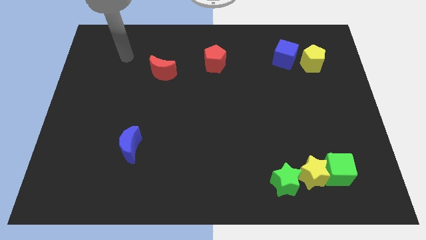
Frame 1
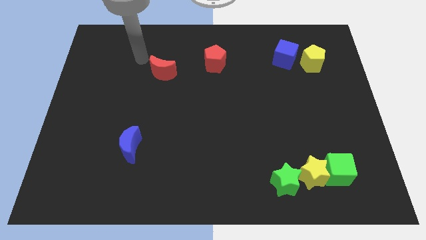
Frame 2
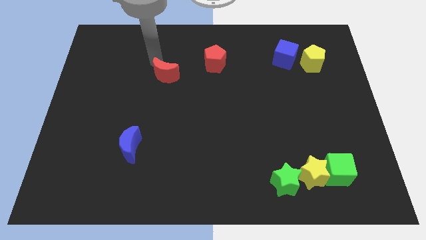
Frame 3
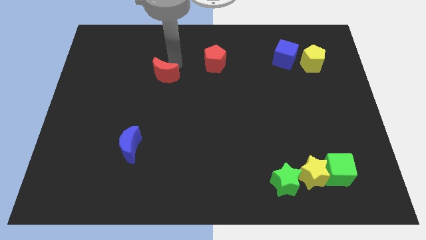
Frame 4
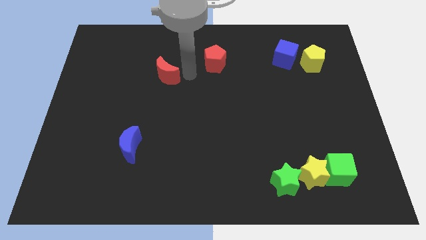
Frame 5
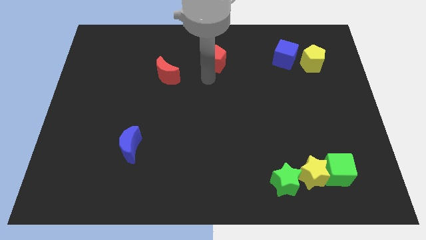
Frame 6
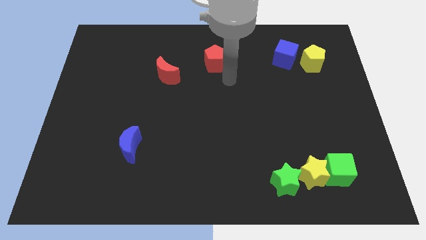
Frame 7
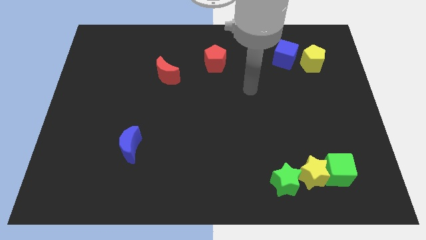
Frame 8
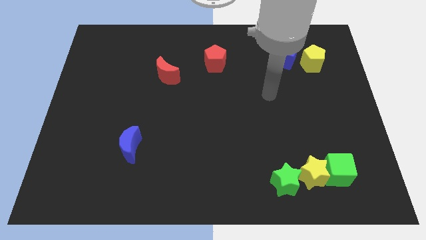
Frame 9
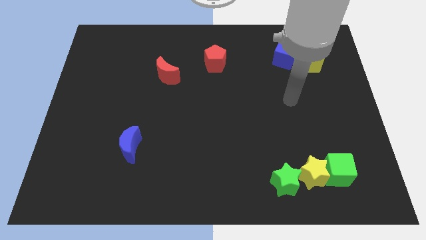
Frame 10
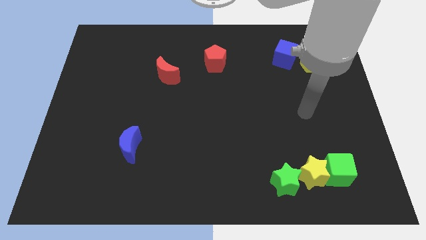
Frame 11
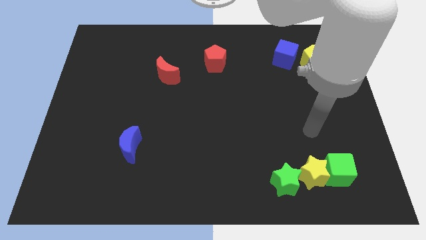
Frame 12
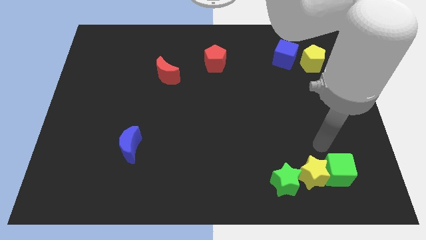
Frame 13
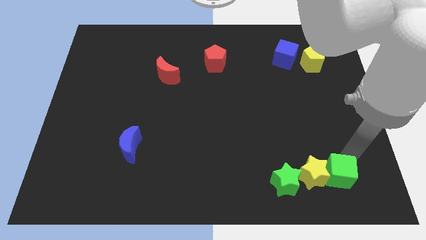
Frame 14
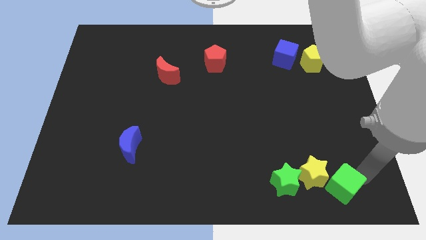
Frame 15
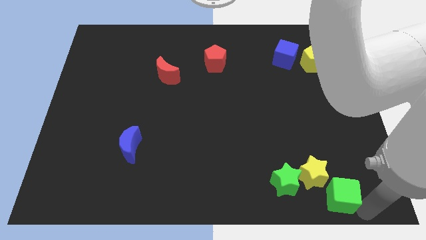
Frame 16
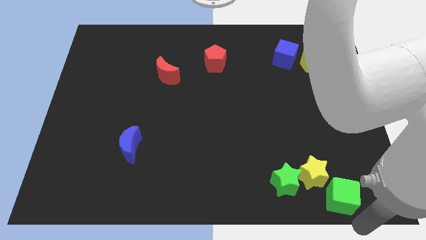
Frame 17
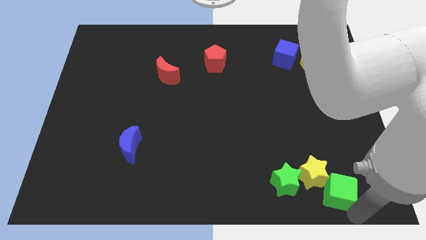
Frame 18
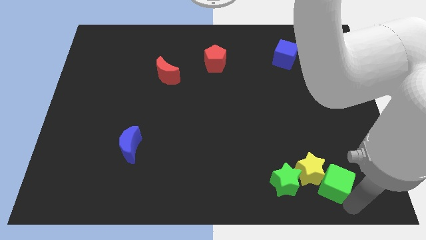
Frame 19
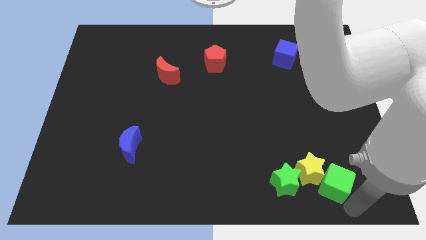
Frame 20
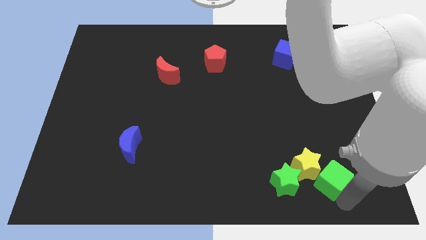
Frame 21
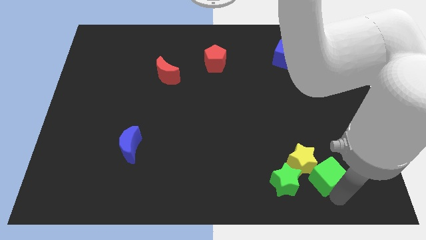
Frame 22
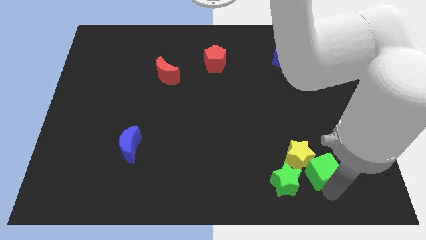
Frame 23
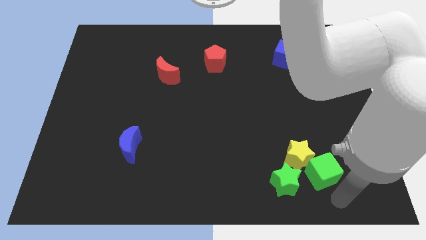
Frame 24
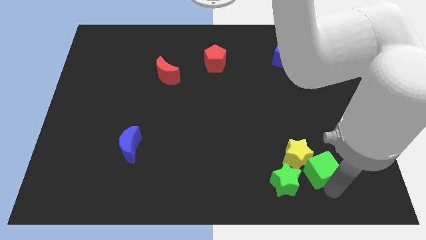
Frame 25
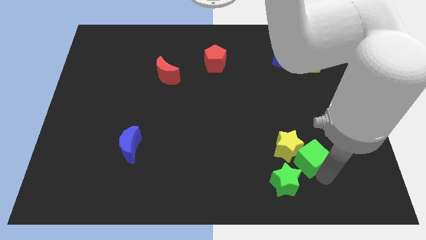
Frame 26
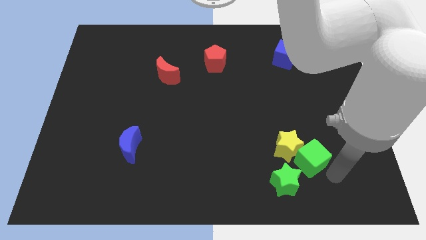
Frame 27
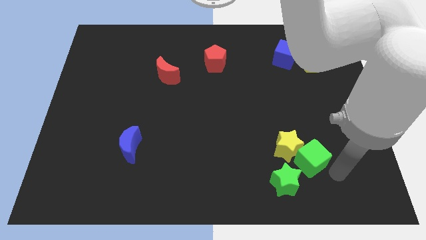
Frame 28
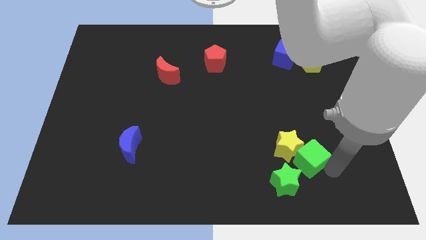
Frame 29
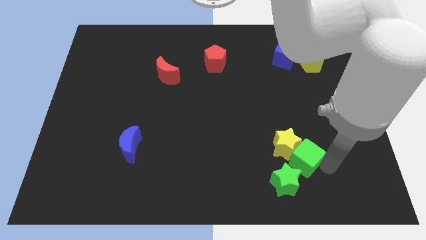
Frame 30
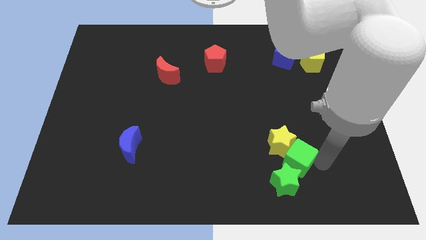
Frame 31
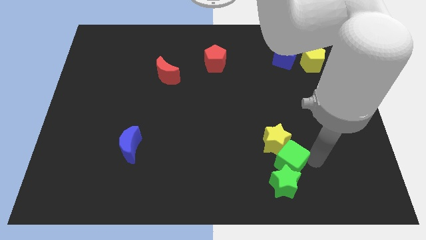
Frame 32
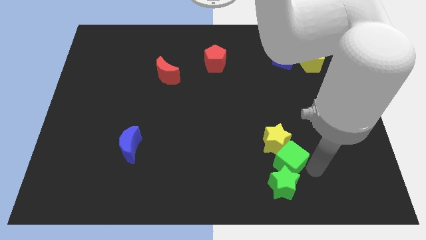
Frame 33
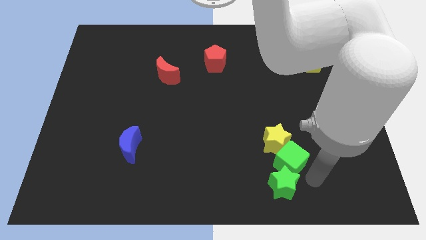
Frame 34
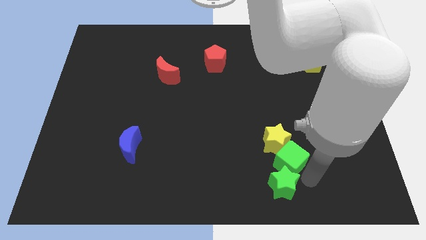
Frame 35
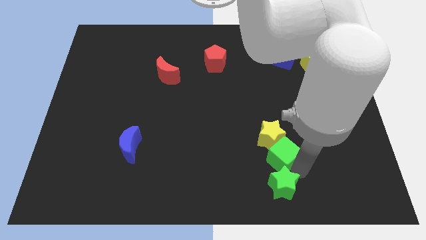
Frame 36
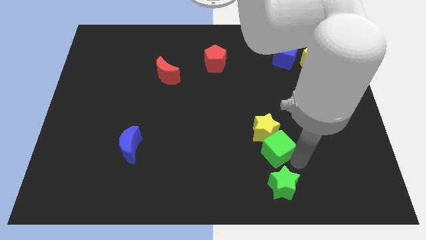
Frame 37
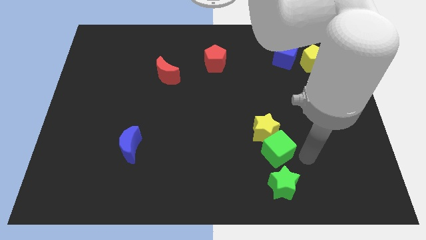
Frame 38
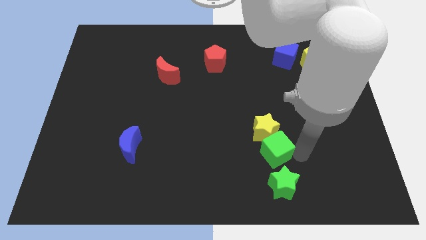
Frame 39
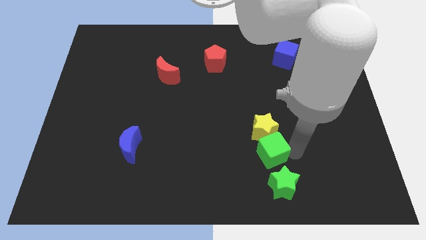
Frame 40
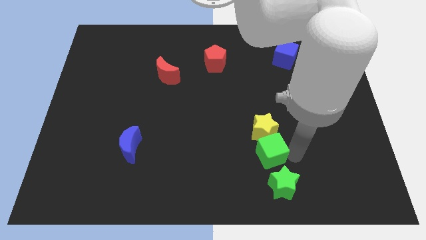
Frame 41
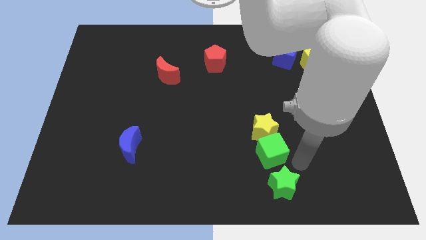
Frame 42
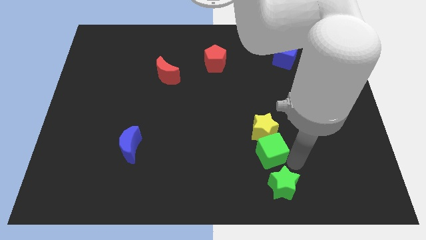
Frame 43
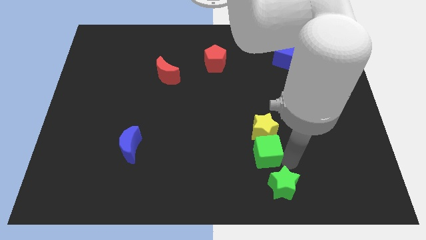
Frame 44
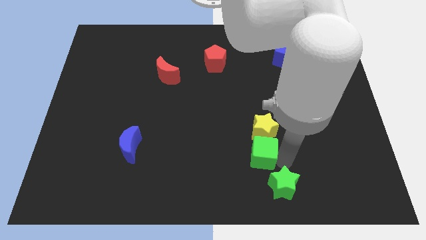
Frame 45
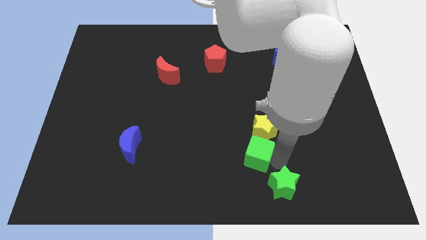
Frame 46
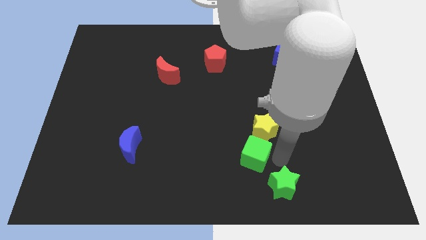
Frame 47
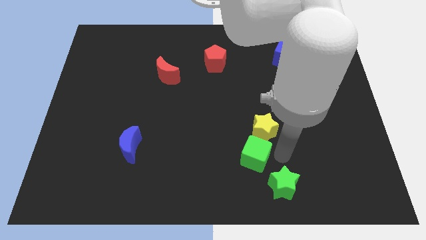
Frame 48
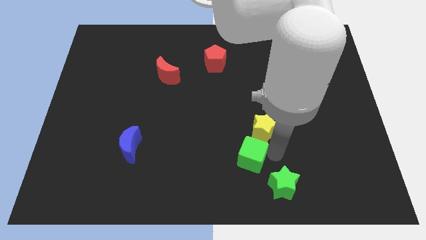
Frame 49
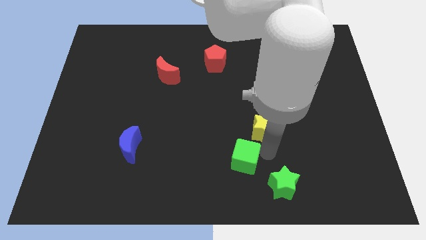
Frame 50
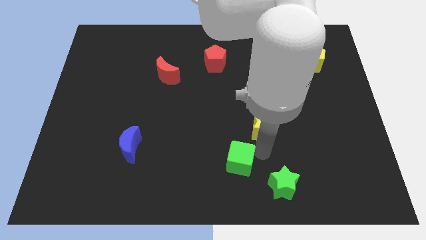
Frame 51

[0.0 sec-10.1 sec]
slide the green cube to the left

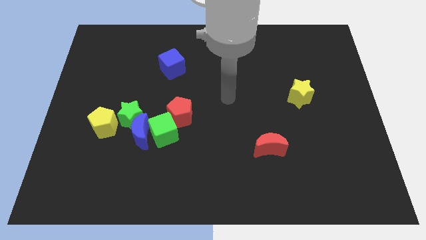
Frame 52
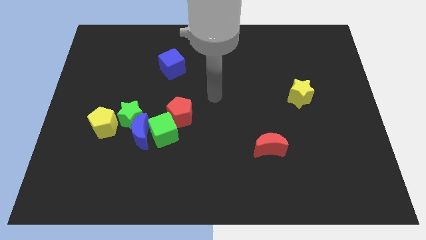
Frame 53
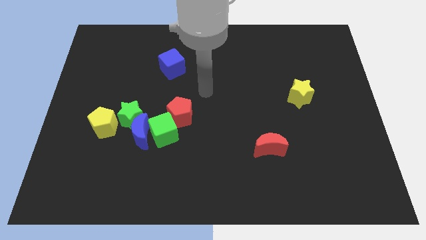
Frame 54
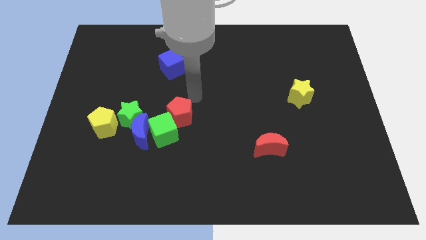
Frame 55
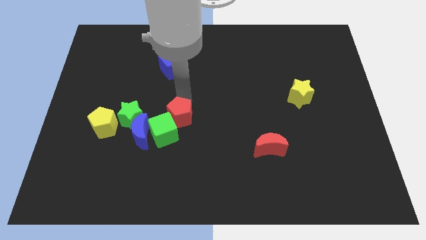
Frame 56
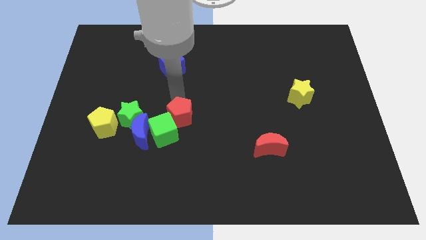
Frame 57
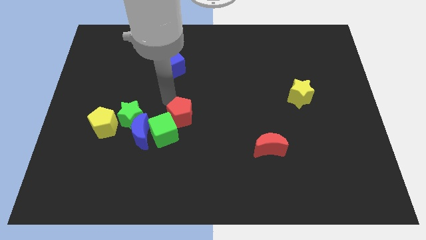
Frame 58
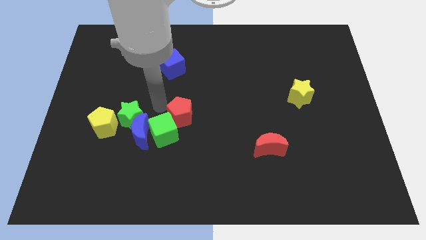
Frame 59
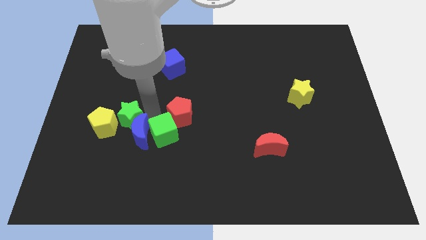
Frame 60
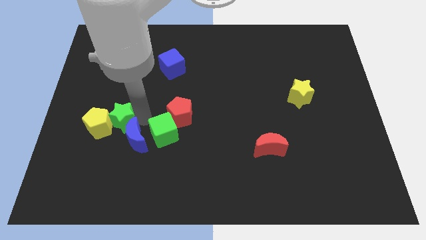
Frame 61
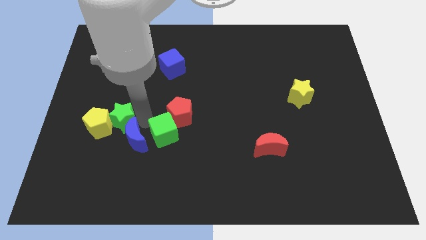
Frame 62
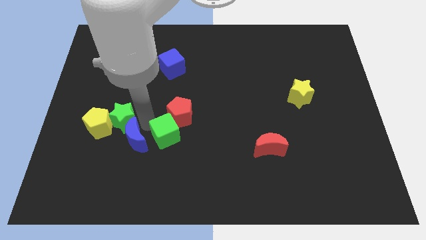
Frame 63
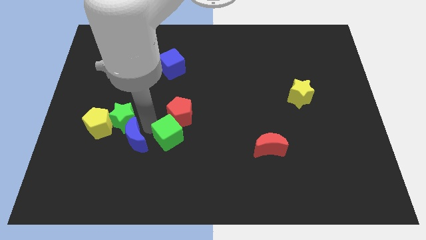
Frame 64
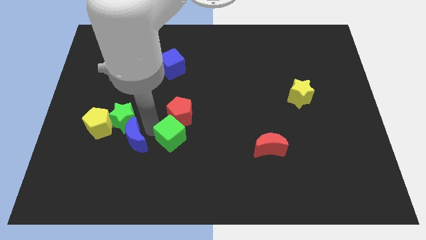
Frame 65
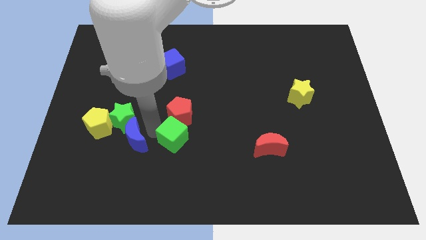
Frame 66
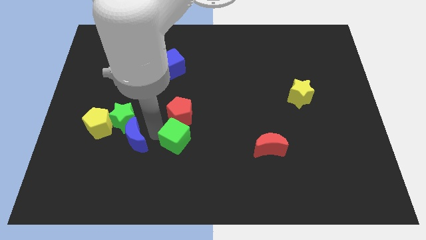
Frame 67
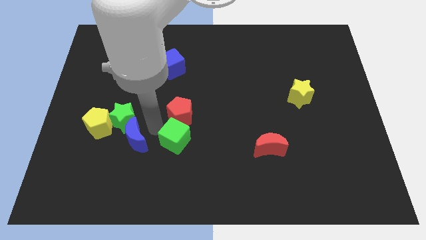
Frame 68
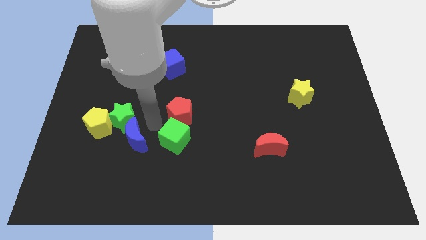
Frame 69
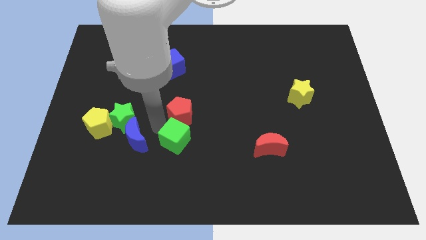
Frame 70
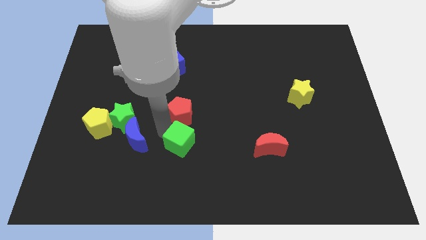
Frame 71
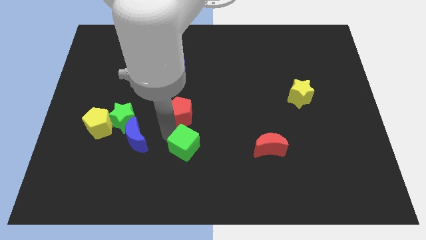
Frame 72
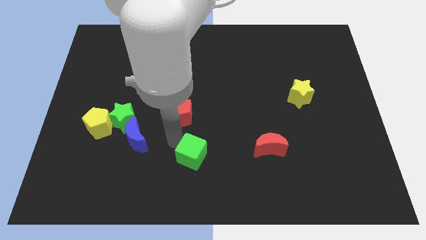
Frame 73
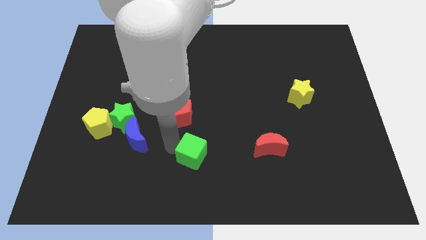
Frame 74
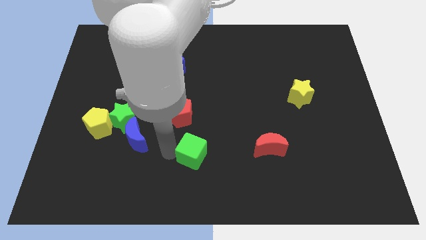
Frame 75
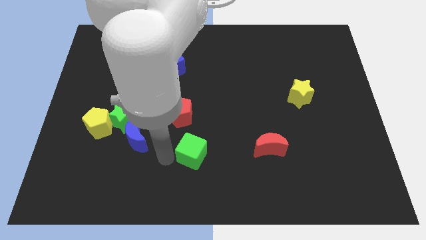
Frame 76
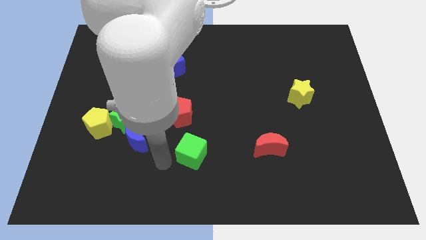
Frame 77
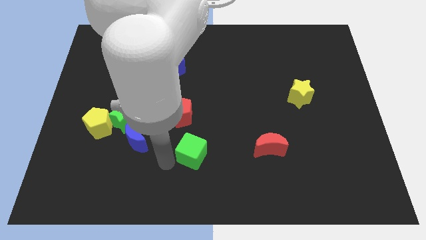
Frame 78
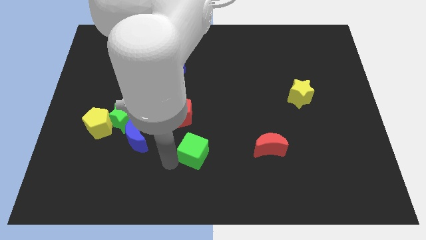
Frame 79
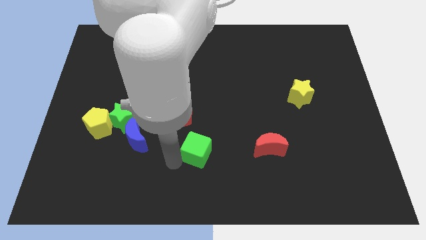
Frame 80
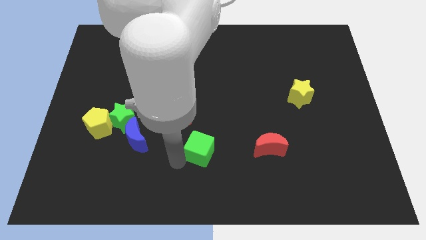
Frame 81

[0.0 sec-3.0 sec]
slide the green cube right a little bit
